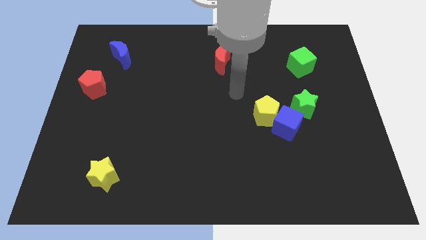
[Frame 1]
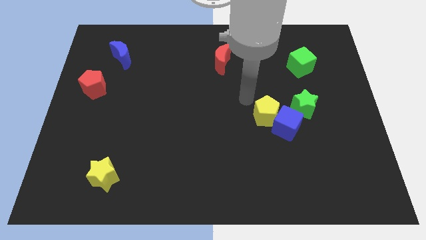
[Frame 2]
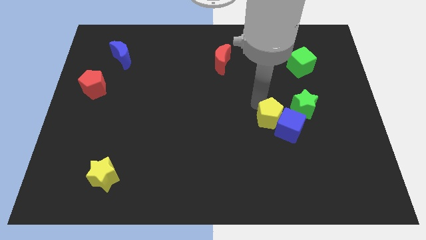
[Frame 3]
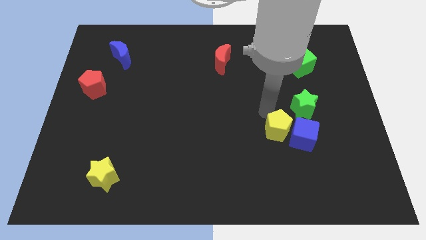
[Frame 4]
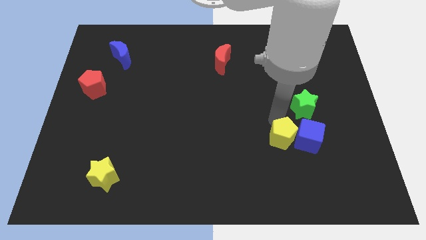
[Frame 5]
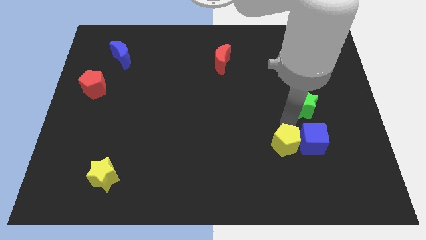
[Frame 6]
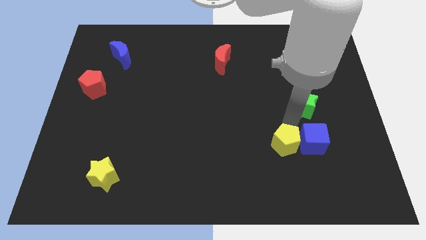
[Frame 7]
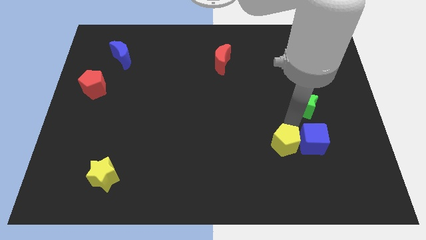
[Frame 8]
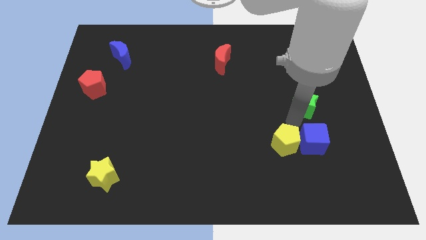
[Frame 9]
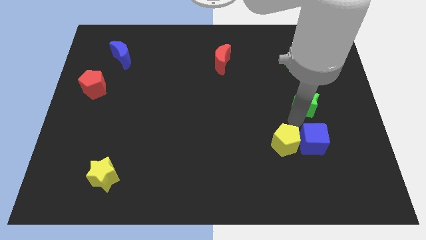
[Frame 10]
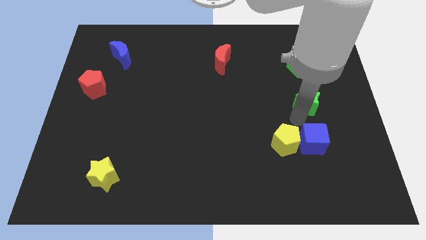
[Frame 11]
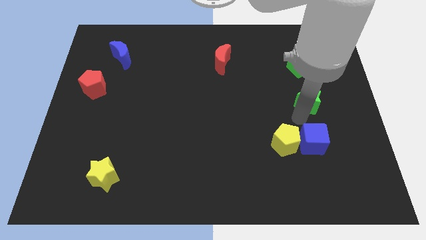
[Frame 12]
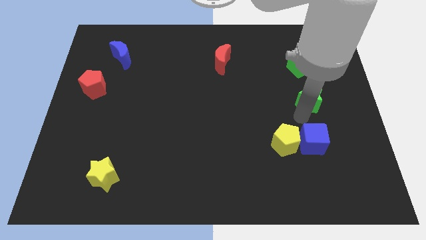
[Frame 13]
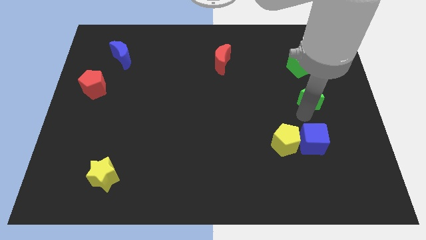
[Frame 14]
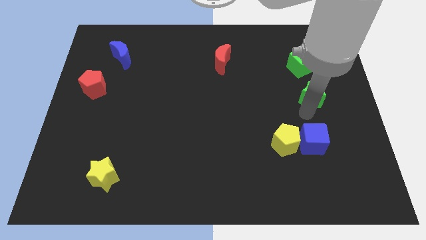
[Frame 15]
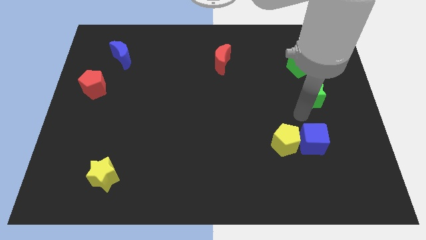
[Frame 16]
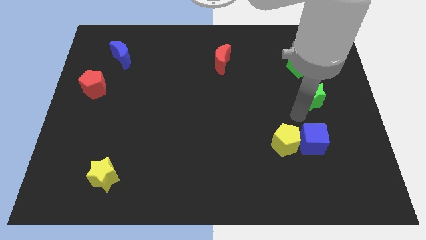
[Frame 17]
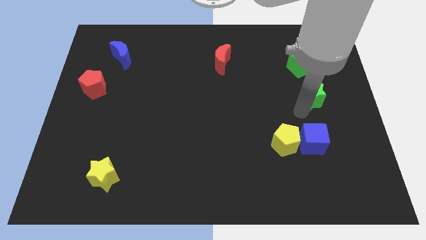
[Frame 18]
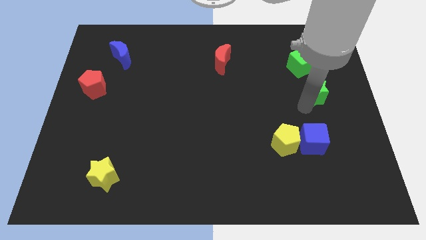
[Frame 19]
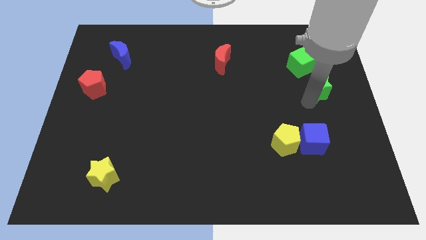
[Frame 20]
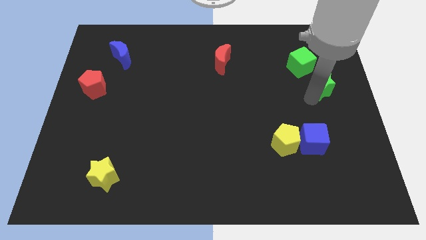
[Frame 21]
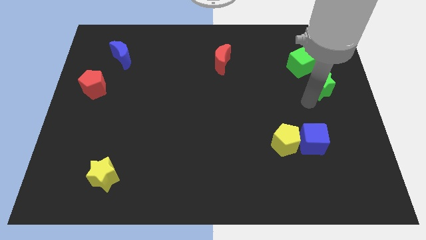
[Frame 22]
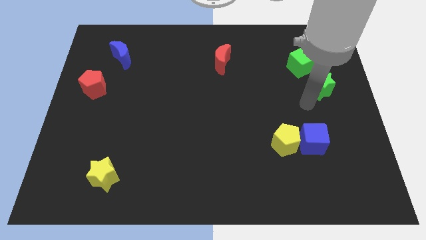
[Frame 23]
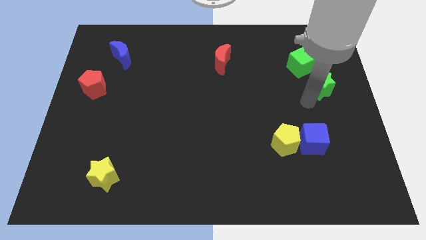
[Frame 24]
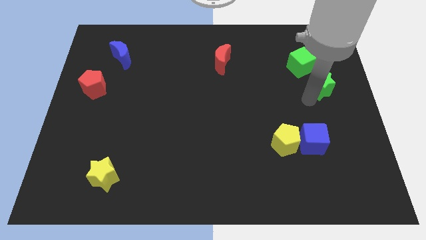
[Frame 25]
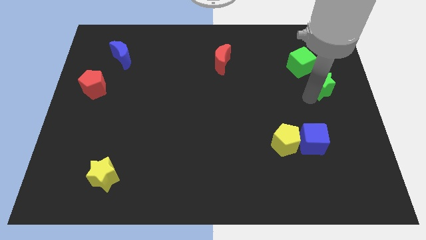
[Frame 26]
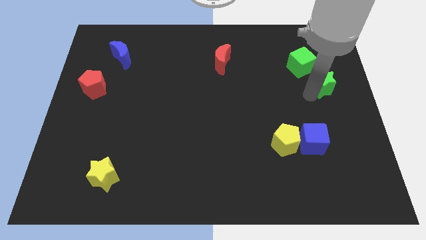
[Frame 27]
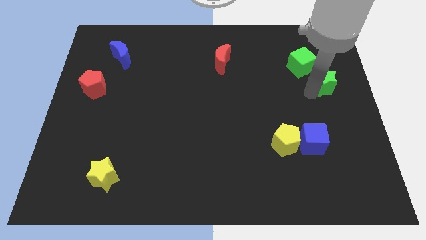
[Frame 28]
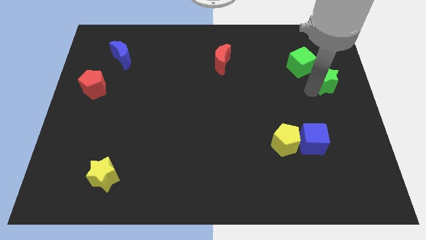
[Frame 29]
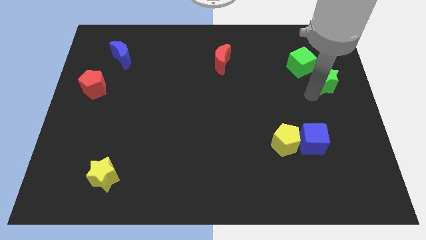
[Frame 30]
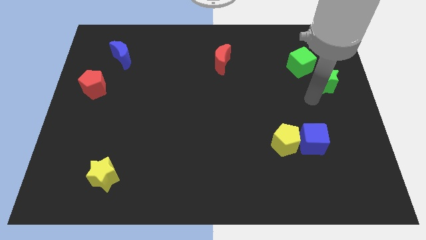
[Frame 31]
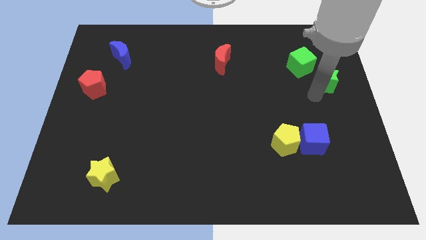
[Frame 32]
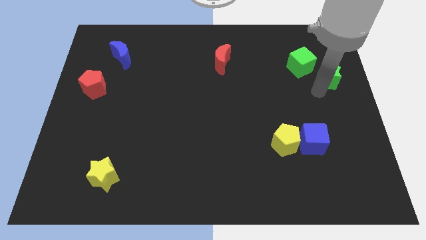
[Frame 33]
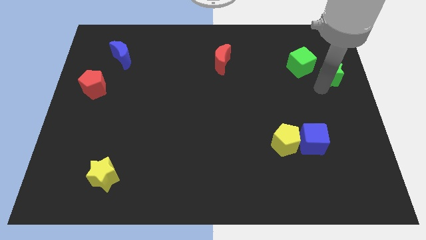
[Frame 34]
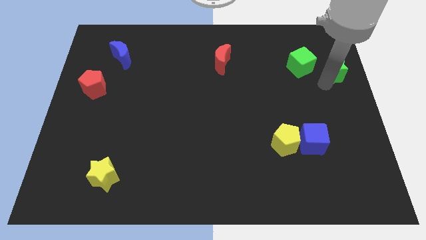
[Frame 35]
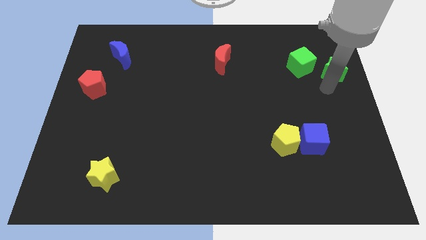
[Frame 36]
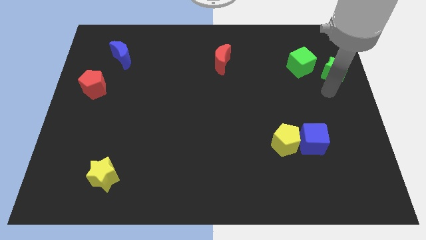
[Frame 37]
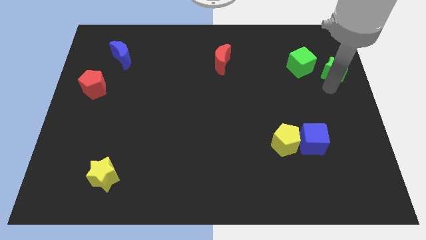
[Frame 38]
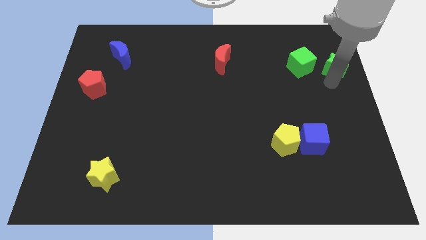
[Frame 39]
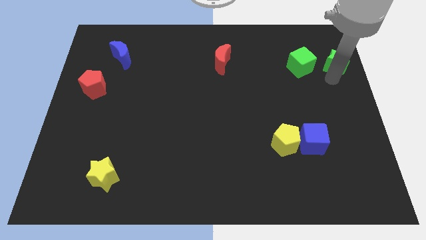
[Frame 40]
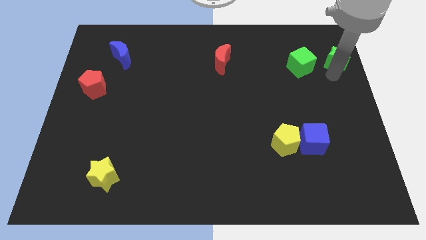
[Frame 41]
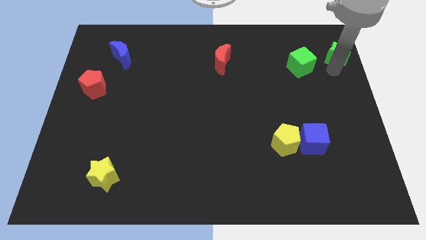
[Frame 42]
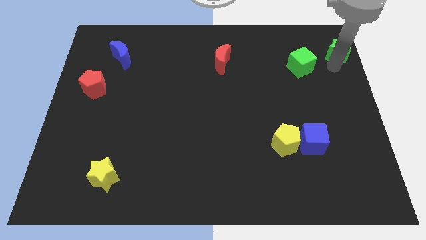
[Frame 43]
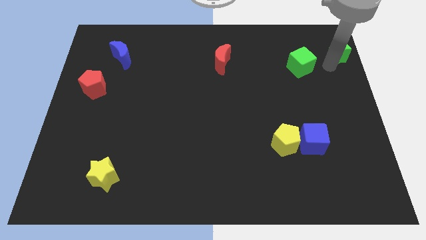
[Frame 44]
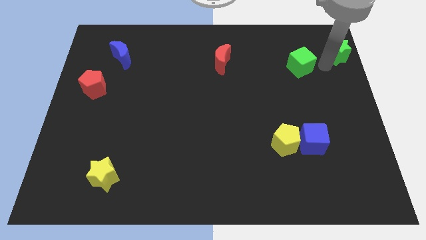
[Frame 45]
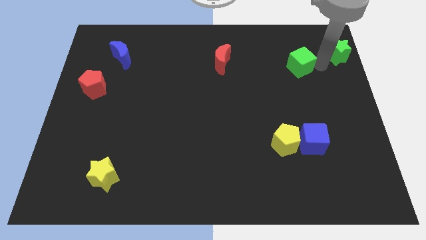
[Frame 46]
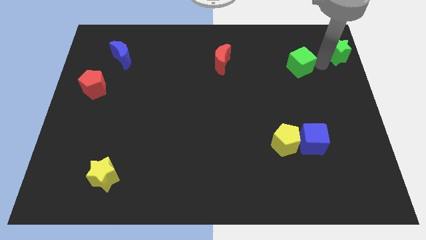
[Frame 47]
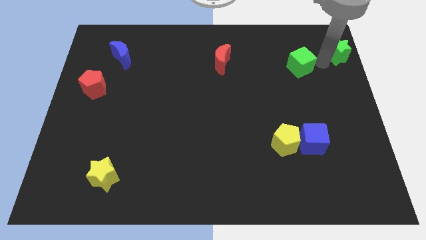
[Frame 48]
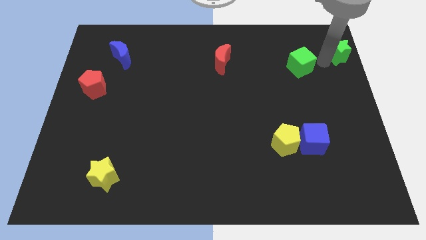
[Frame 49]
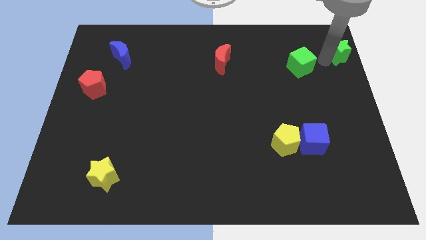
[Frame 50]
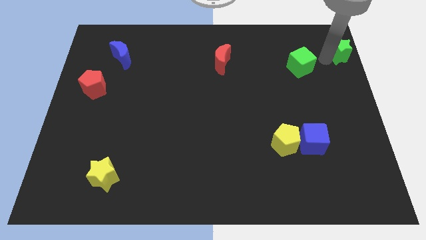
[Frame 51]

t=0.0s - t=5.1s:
push the green star to the top right

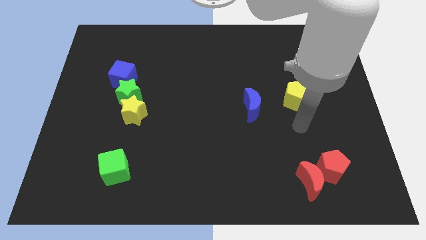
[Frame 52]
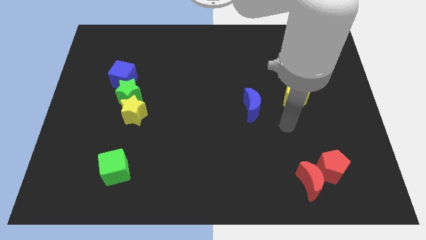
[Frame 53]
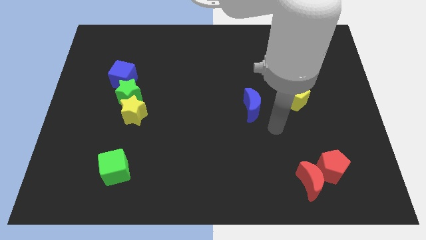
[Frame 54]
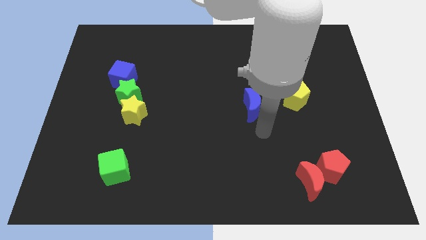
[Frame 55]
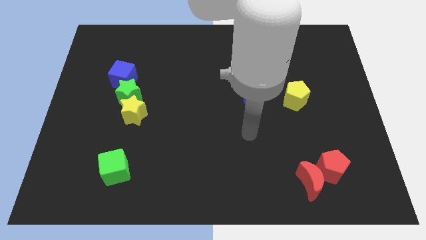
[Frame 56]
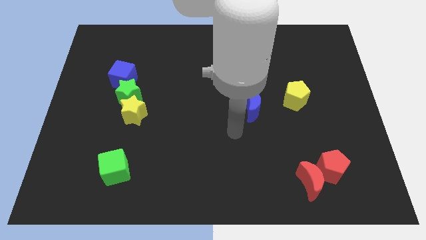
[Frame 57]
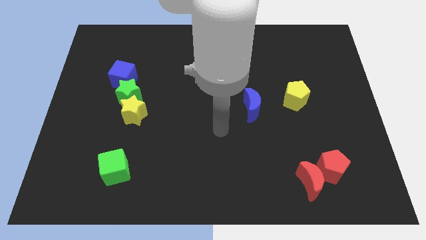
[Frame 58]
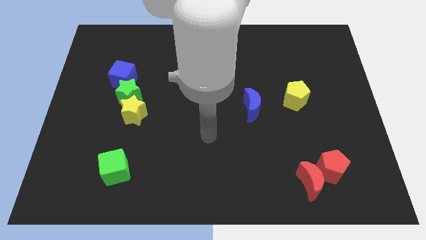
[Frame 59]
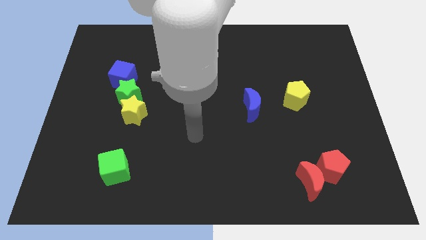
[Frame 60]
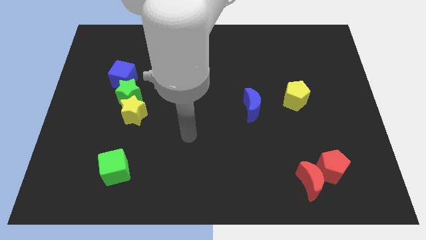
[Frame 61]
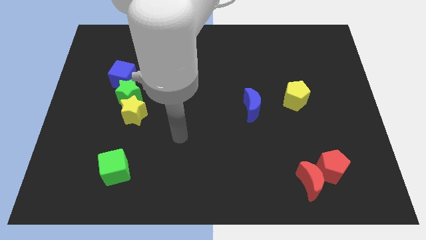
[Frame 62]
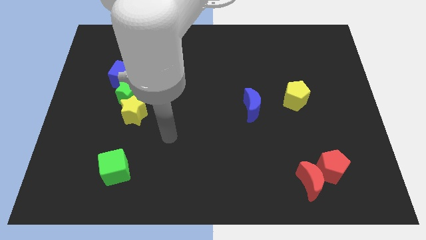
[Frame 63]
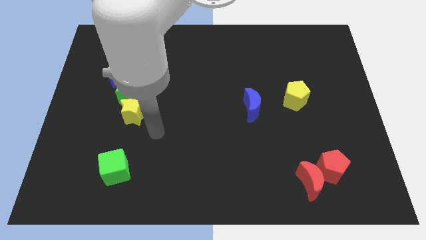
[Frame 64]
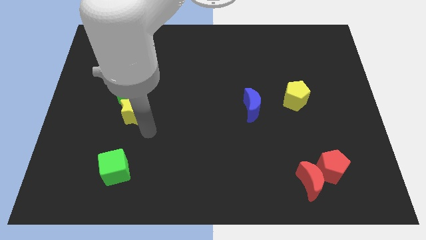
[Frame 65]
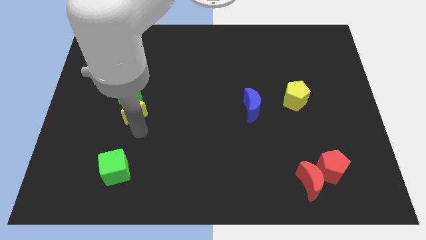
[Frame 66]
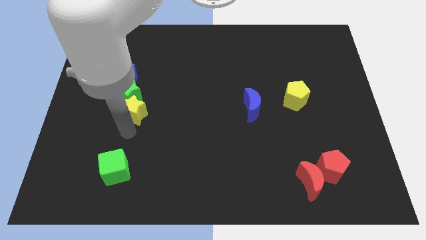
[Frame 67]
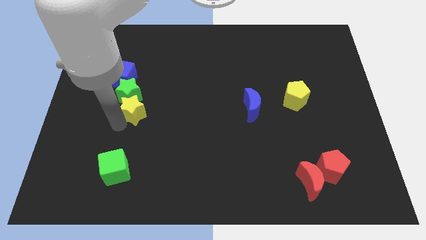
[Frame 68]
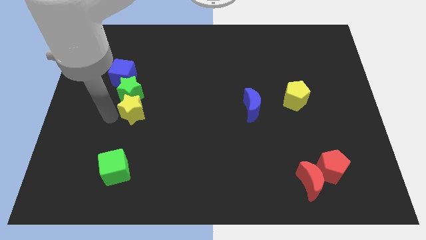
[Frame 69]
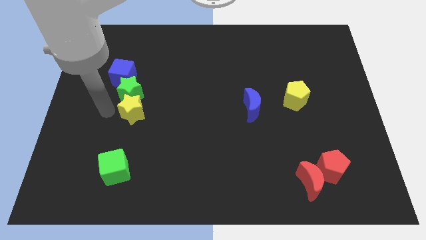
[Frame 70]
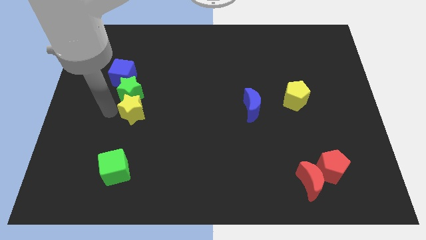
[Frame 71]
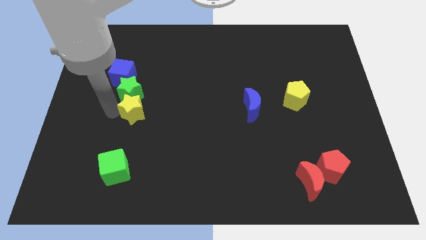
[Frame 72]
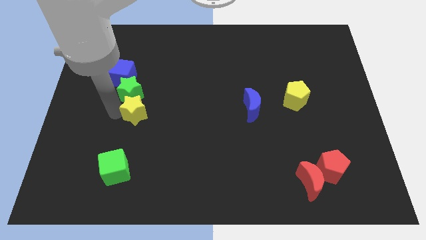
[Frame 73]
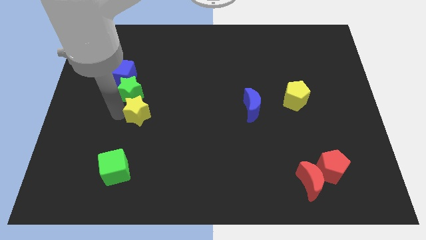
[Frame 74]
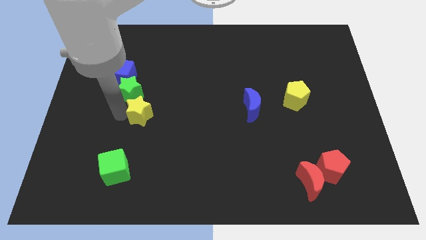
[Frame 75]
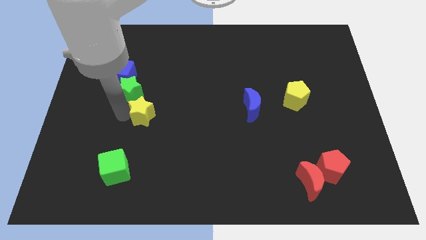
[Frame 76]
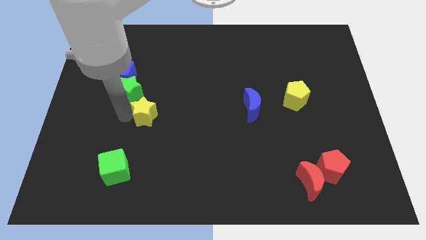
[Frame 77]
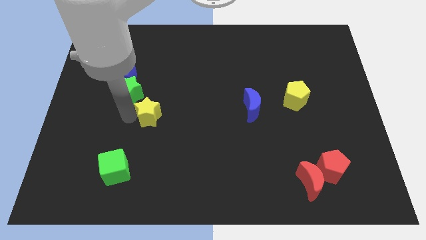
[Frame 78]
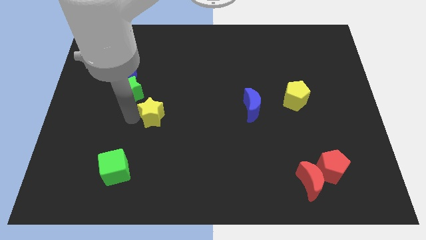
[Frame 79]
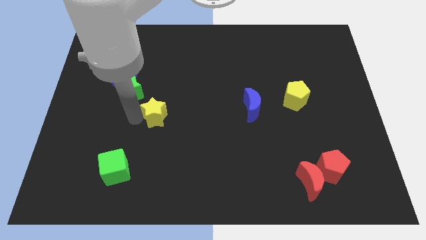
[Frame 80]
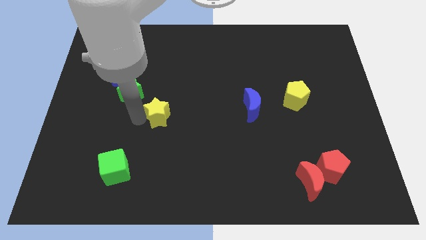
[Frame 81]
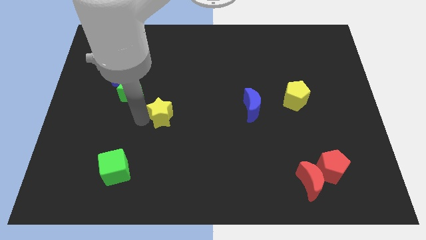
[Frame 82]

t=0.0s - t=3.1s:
move the yellow star to the center of the board
